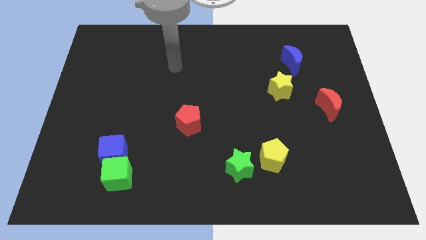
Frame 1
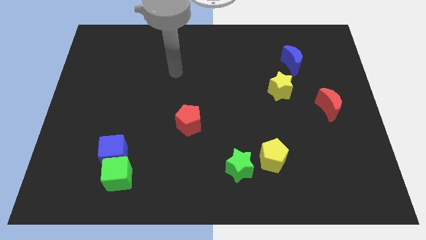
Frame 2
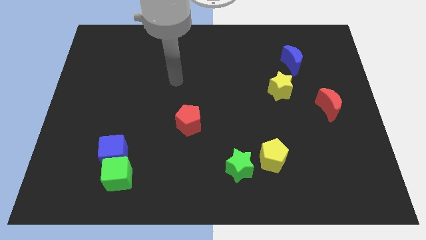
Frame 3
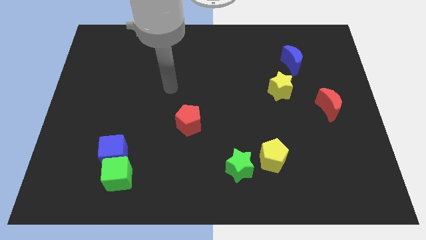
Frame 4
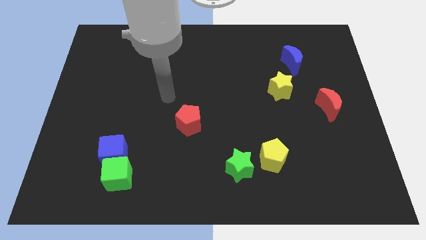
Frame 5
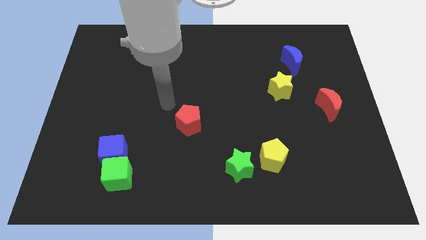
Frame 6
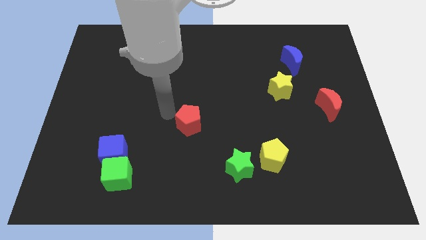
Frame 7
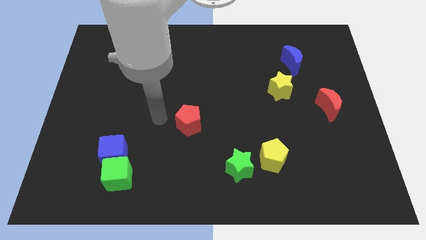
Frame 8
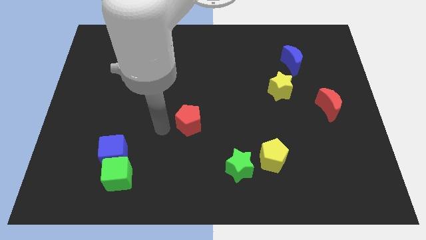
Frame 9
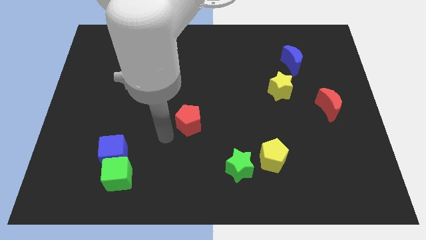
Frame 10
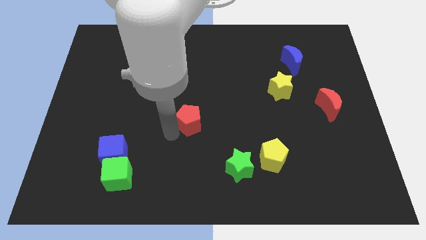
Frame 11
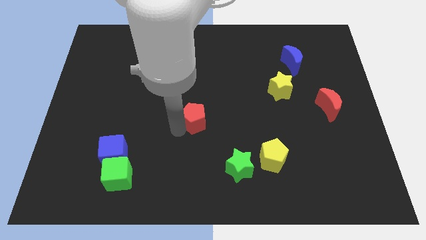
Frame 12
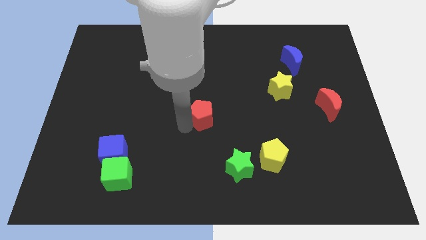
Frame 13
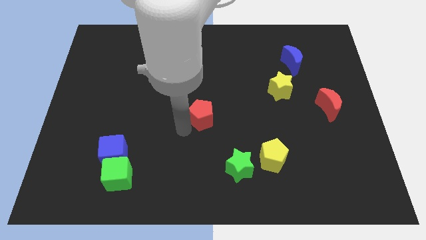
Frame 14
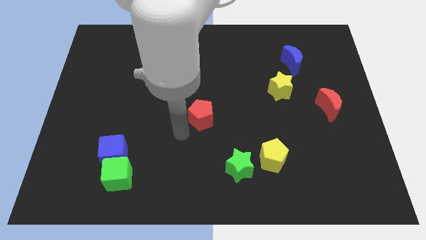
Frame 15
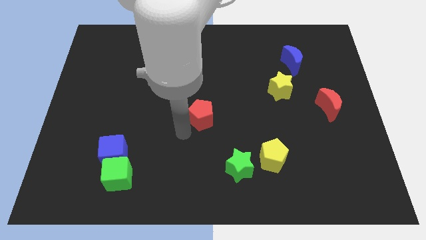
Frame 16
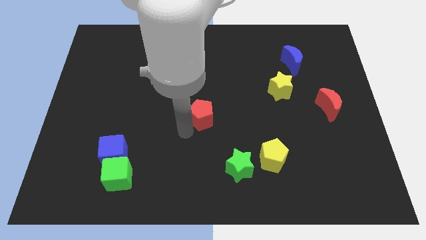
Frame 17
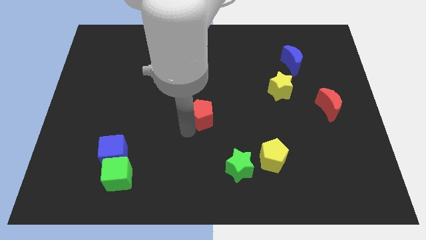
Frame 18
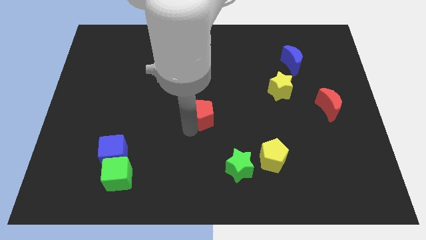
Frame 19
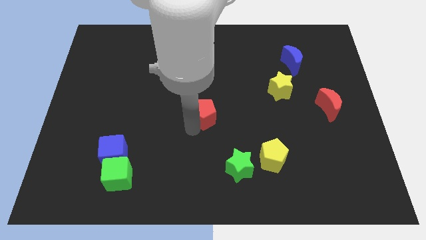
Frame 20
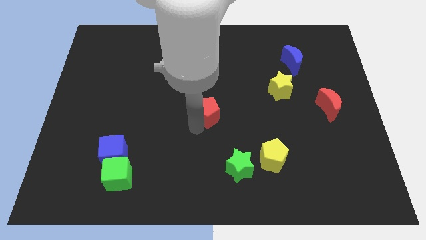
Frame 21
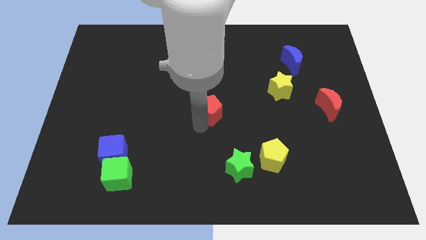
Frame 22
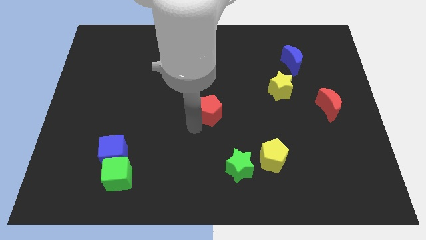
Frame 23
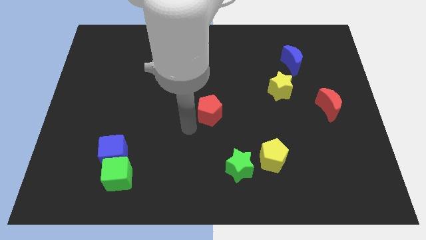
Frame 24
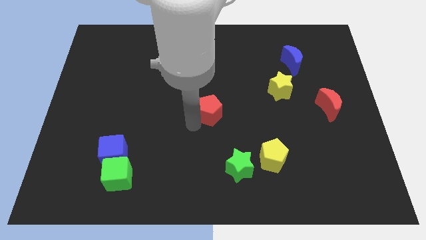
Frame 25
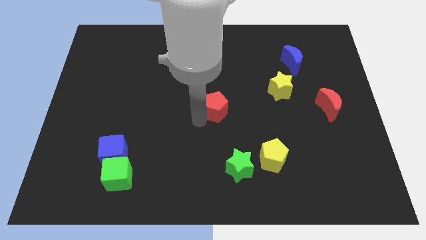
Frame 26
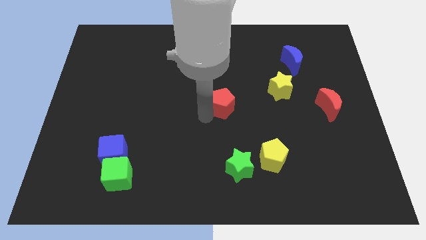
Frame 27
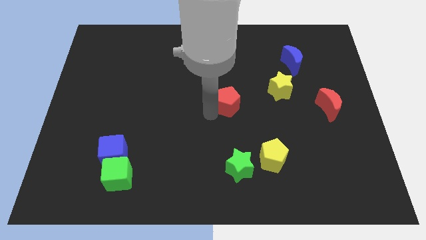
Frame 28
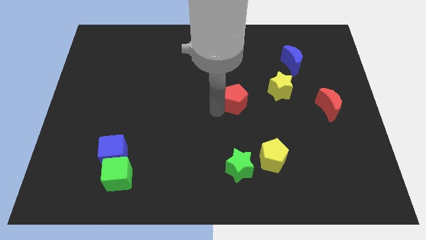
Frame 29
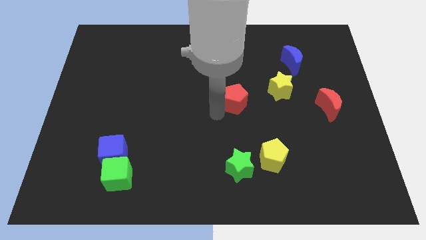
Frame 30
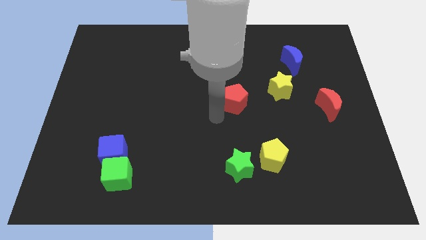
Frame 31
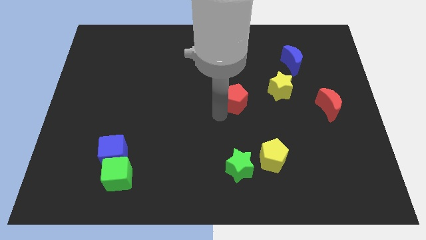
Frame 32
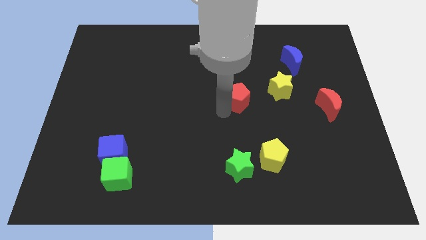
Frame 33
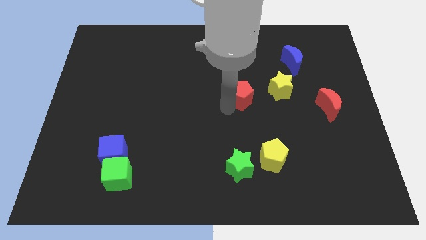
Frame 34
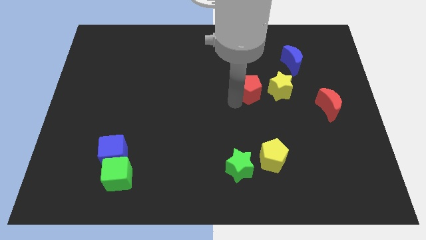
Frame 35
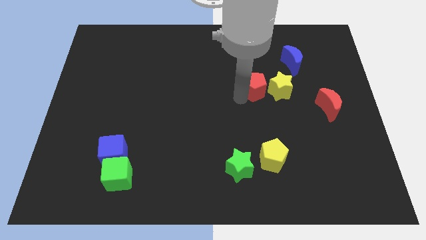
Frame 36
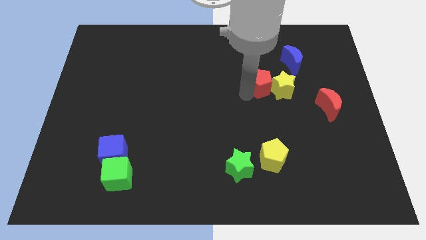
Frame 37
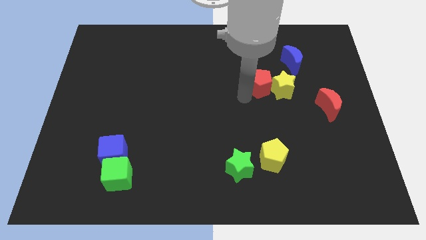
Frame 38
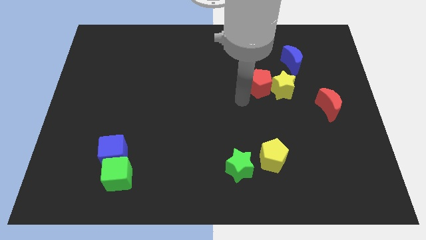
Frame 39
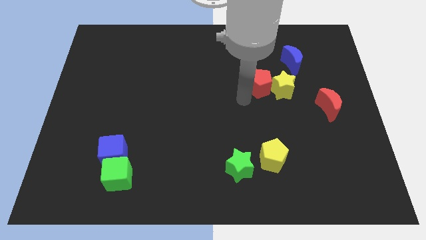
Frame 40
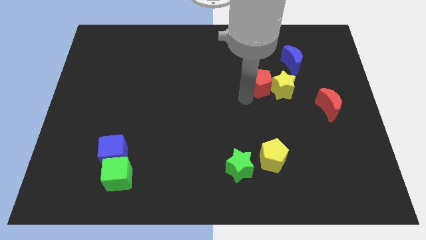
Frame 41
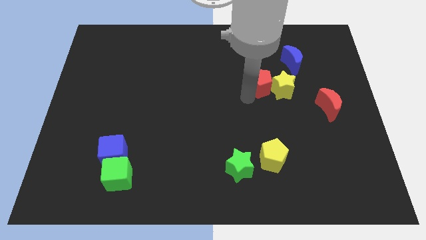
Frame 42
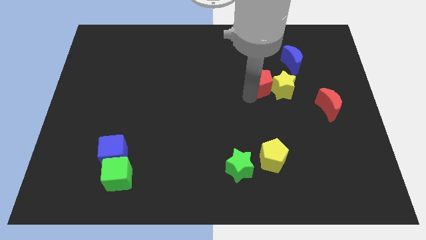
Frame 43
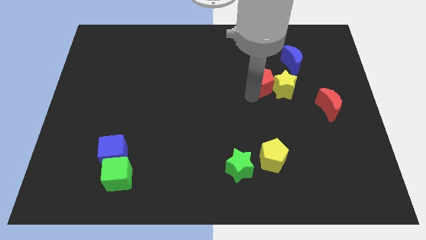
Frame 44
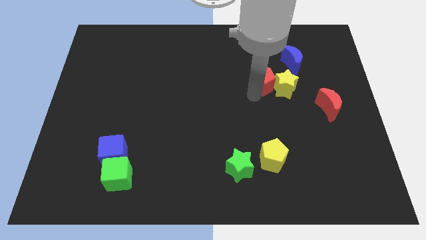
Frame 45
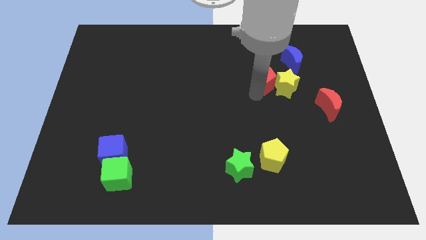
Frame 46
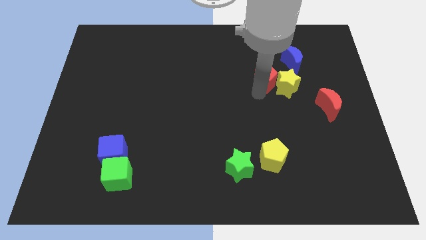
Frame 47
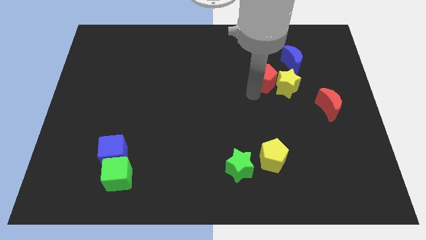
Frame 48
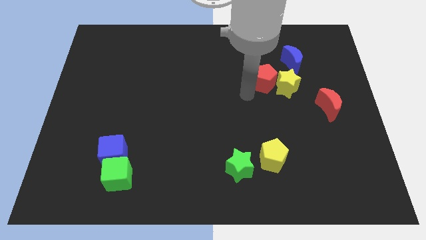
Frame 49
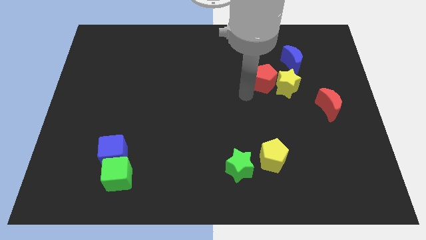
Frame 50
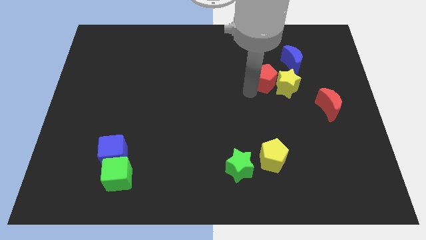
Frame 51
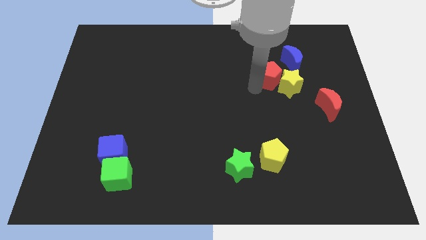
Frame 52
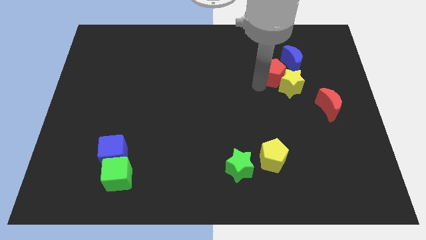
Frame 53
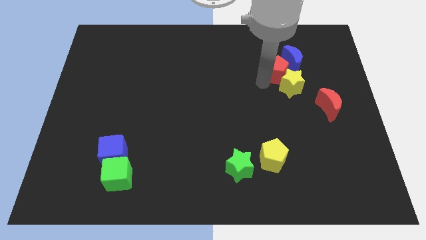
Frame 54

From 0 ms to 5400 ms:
slide the red pentagon towards the blue moon

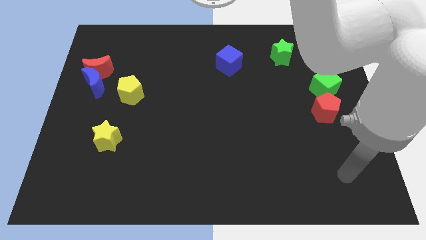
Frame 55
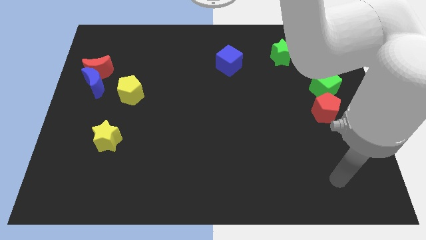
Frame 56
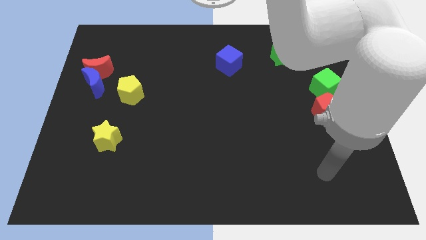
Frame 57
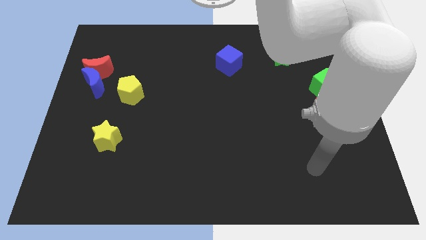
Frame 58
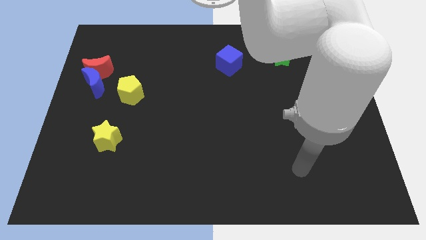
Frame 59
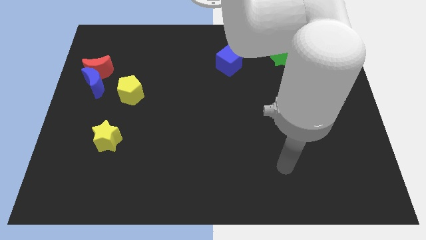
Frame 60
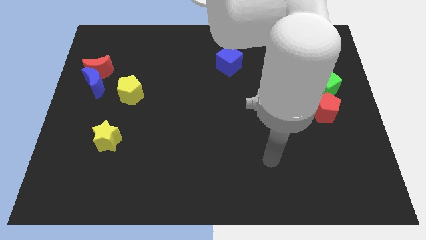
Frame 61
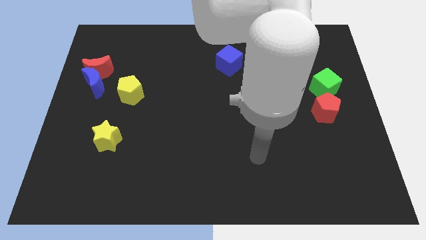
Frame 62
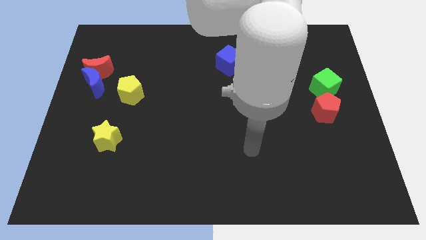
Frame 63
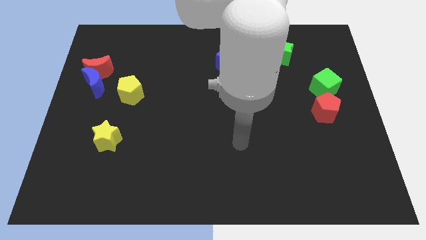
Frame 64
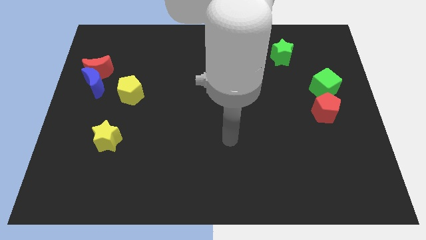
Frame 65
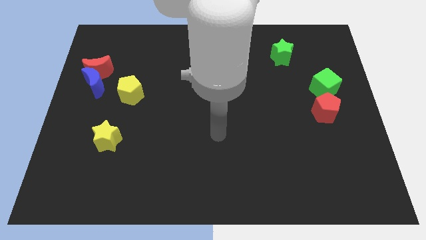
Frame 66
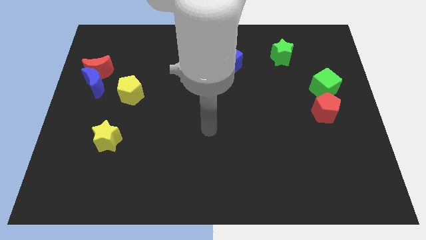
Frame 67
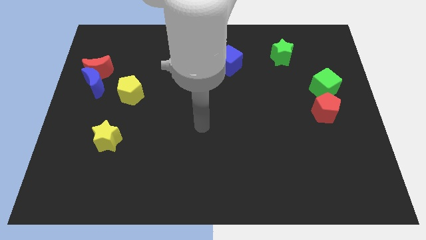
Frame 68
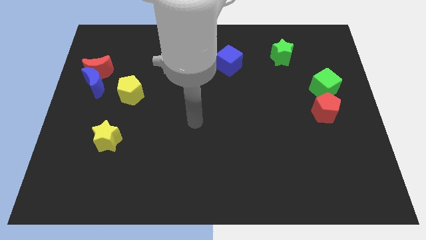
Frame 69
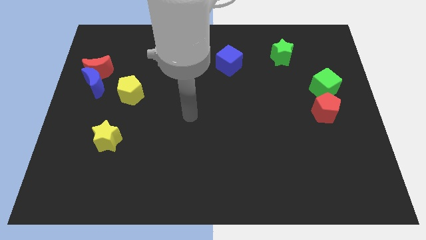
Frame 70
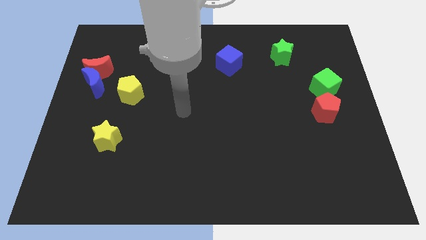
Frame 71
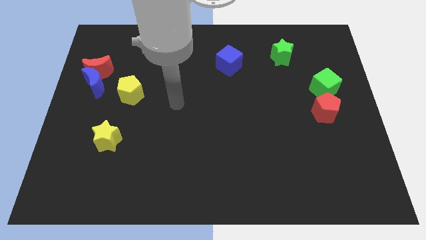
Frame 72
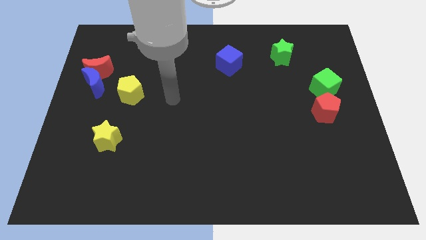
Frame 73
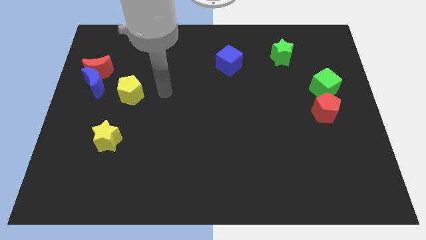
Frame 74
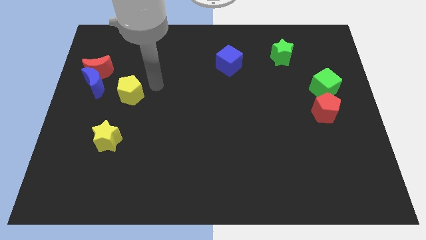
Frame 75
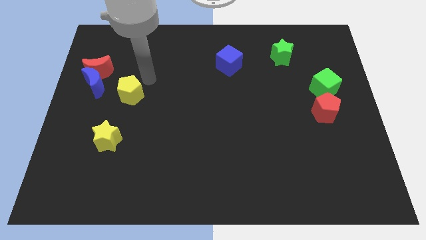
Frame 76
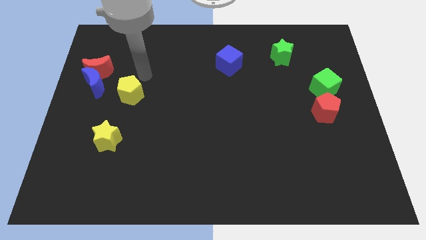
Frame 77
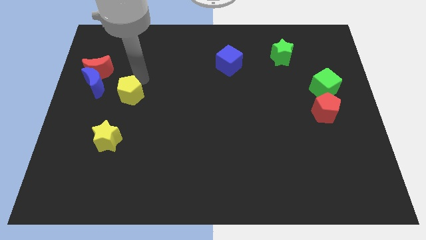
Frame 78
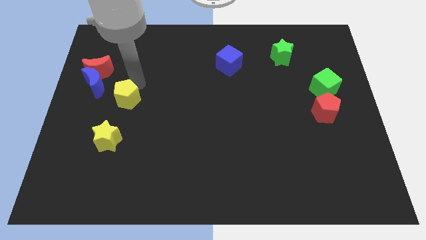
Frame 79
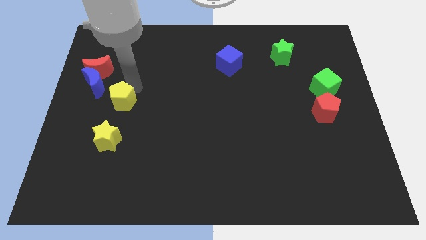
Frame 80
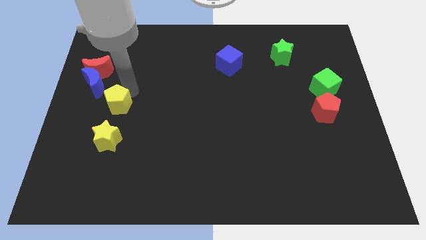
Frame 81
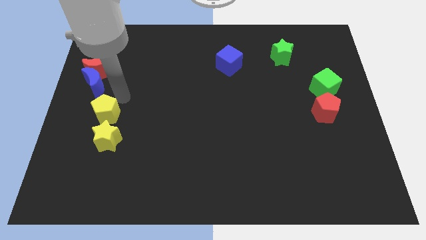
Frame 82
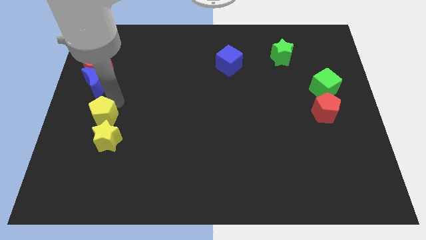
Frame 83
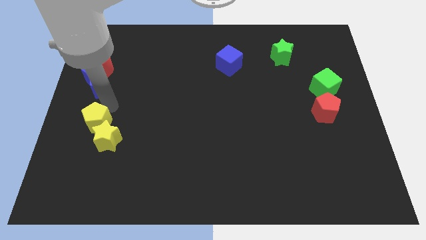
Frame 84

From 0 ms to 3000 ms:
put the yellow pentagon towards the yellow star
